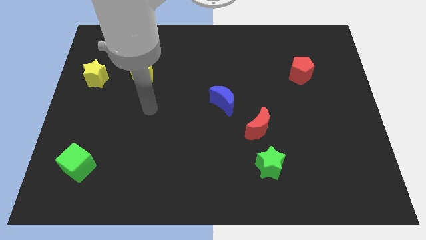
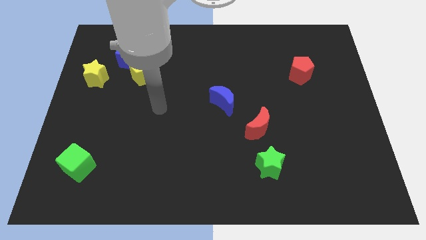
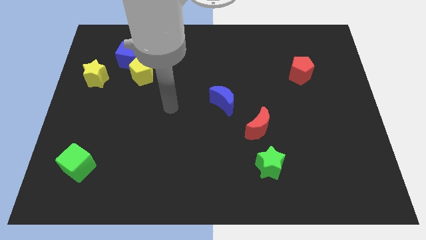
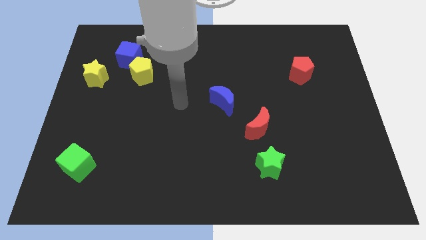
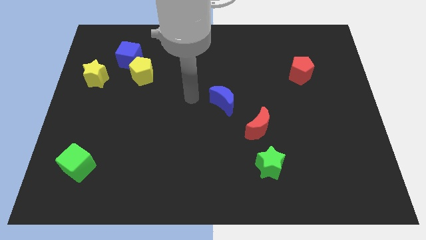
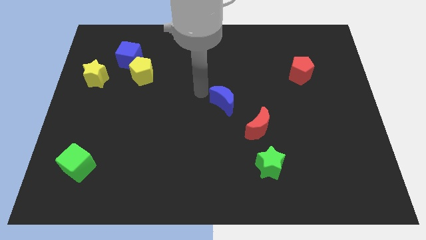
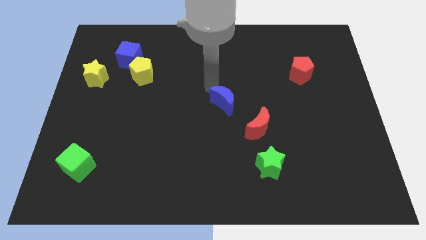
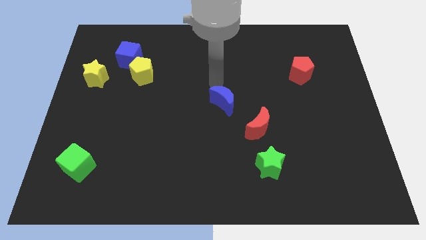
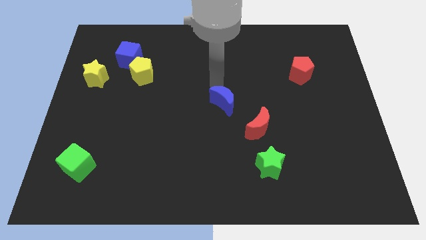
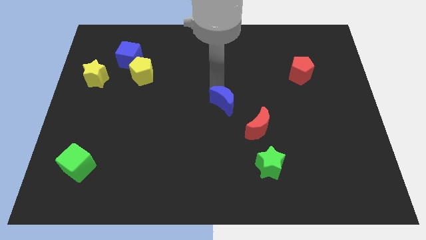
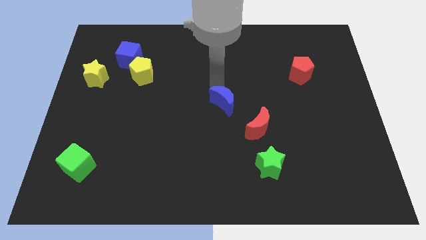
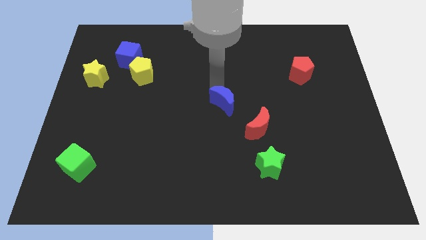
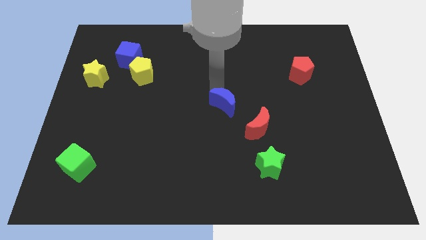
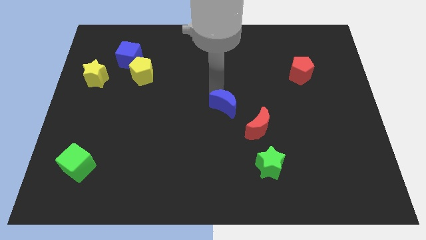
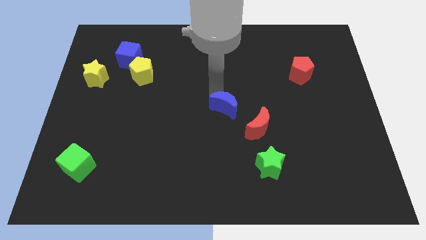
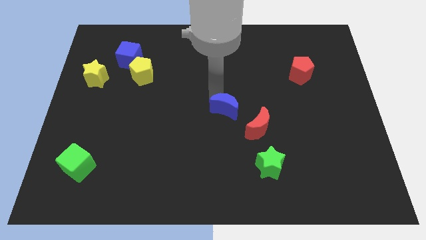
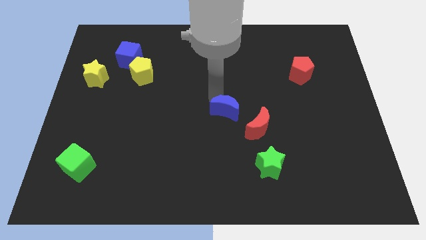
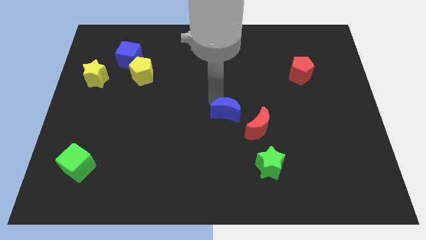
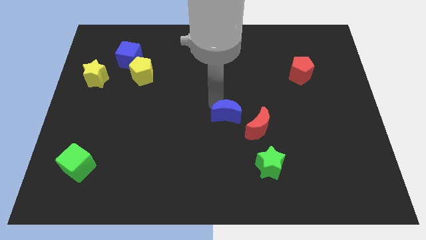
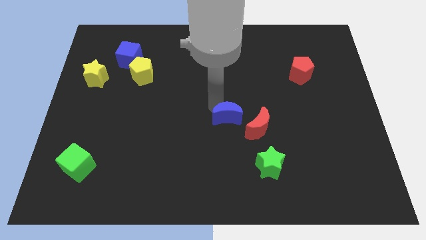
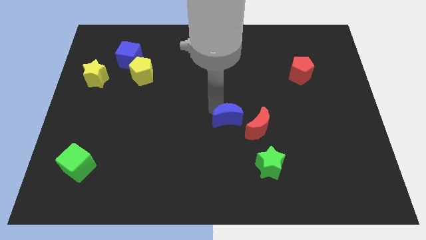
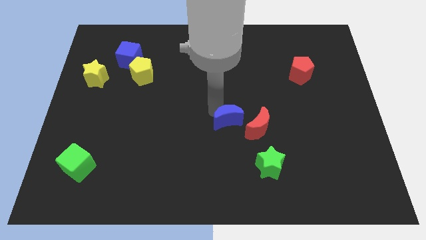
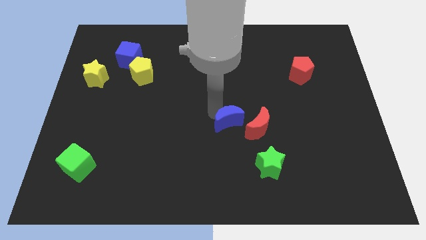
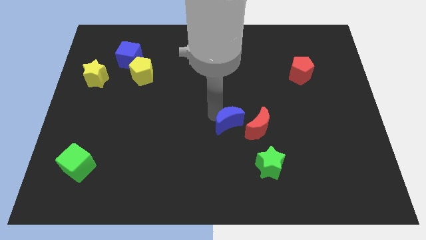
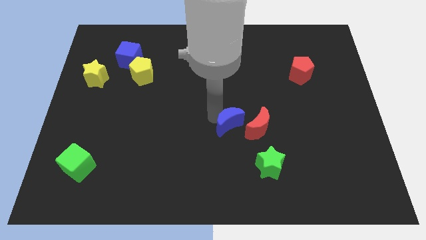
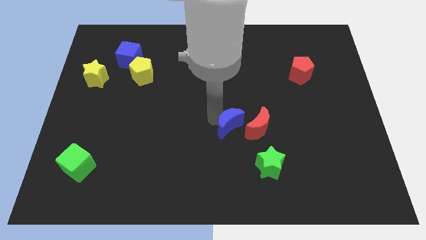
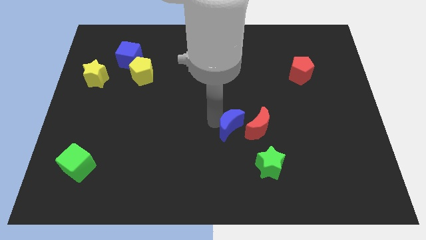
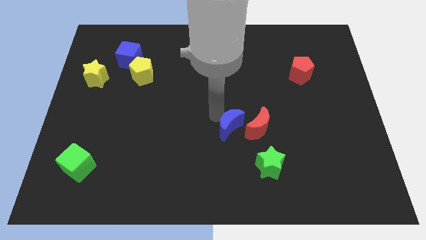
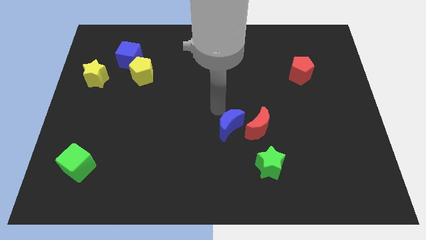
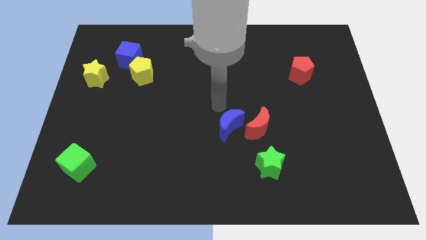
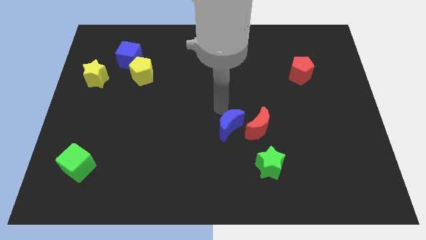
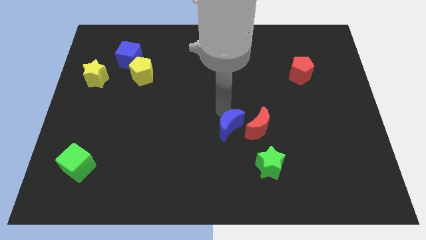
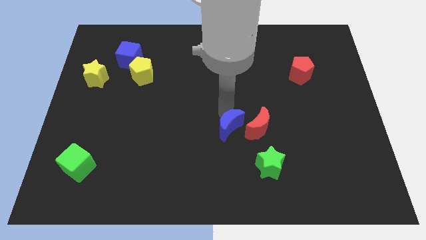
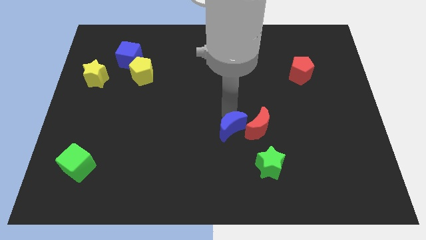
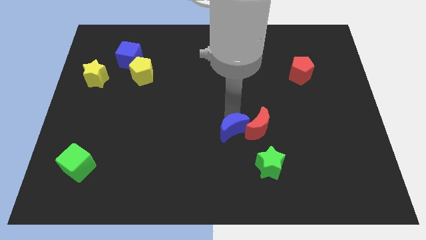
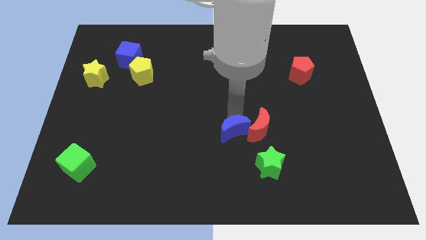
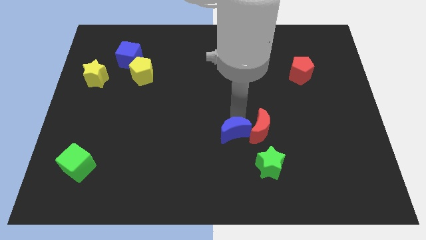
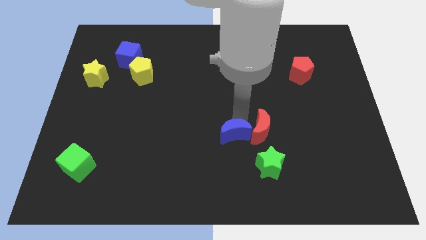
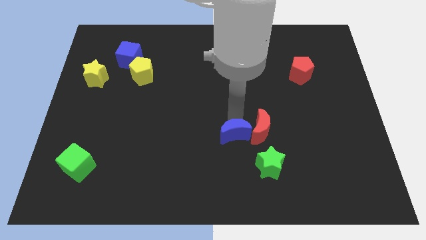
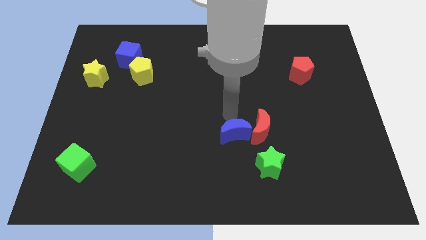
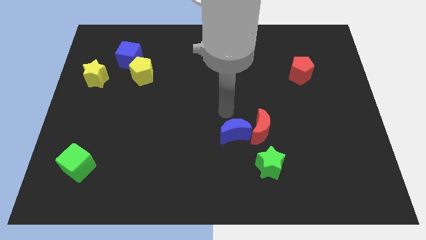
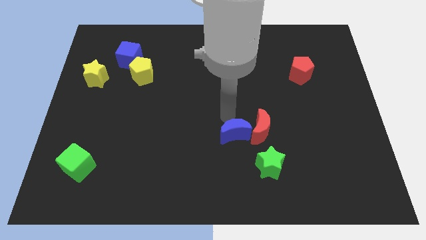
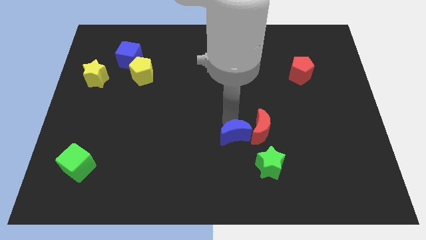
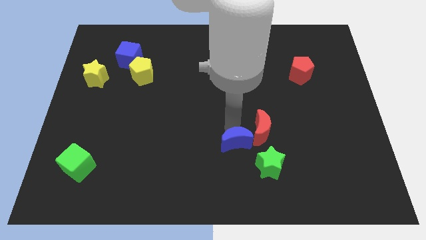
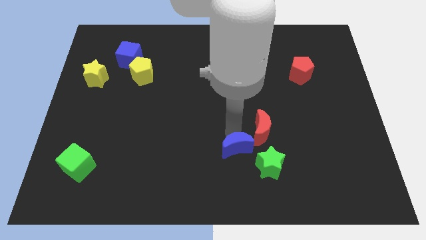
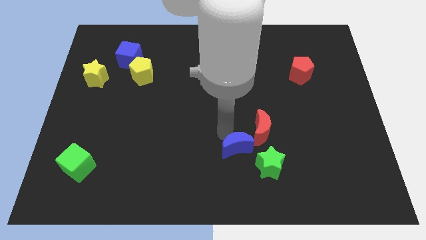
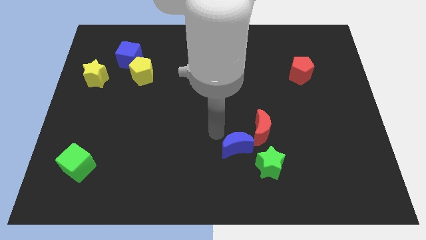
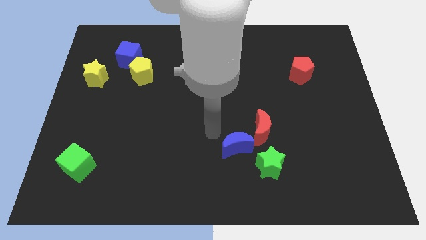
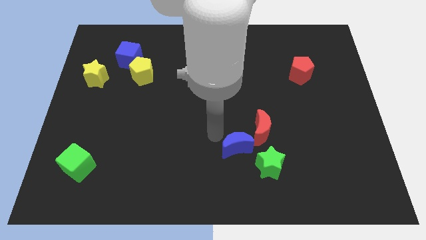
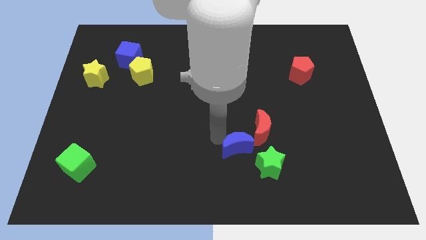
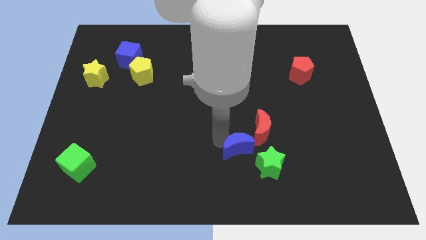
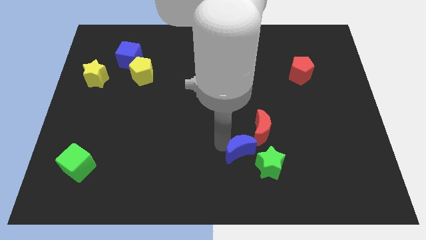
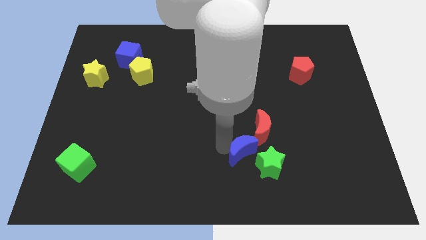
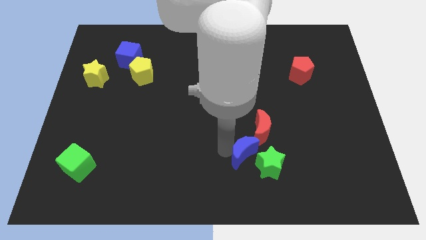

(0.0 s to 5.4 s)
move the blue moon next to the green star

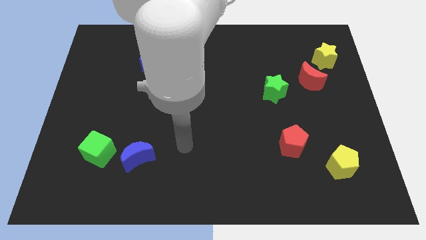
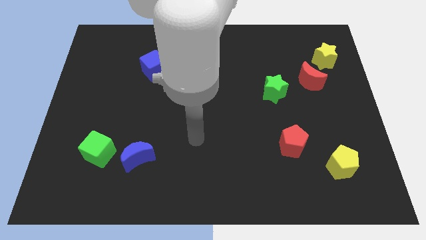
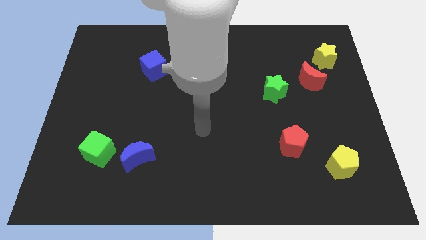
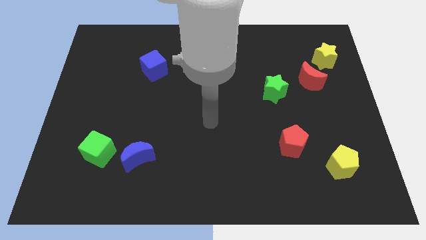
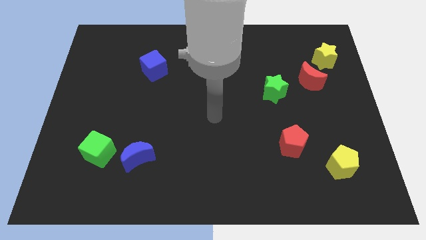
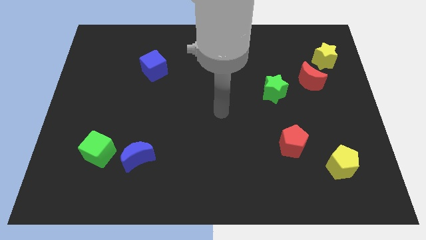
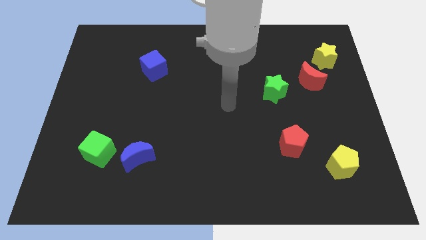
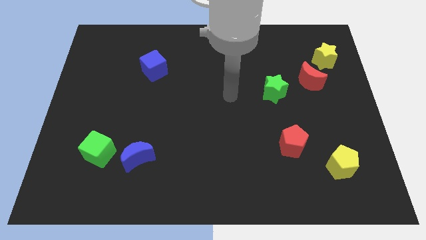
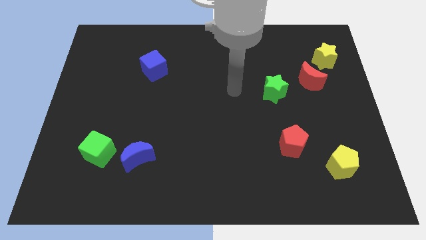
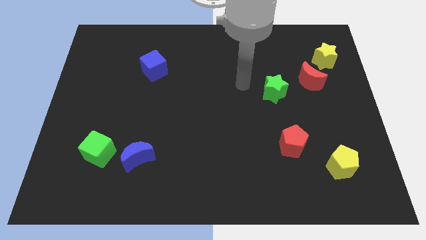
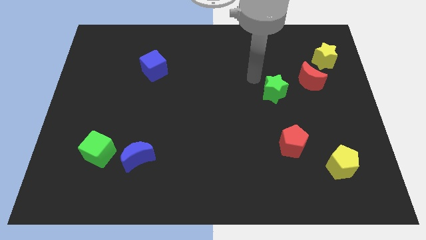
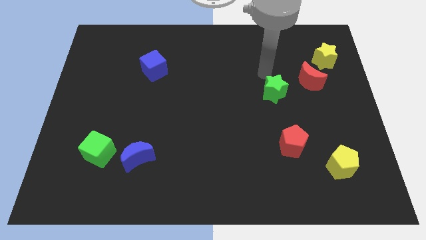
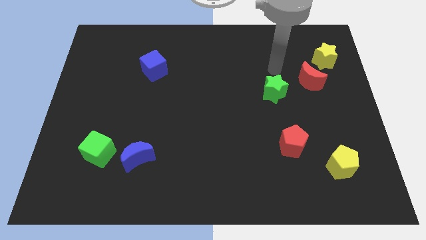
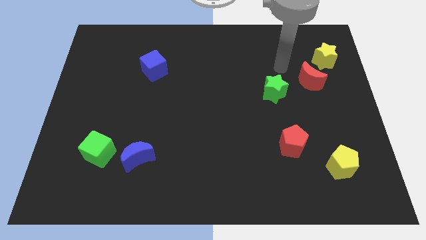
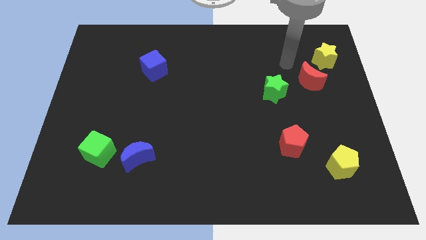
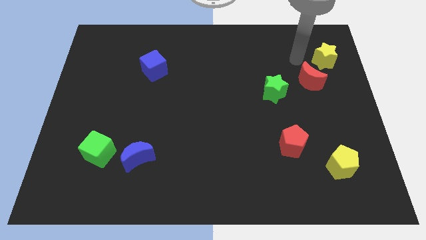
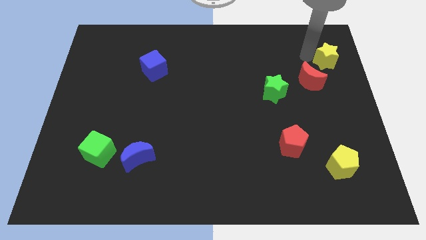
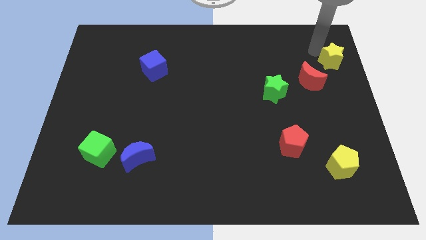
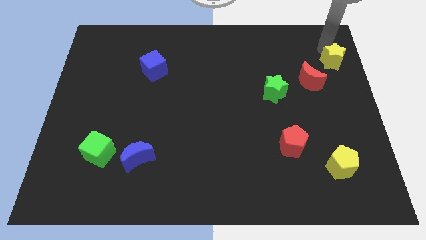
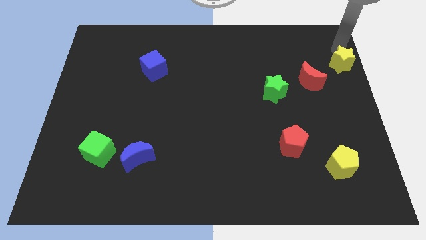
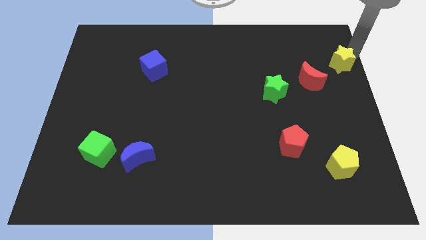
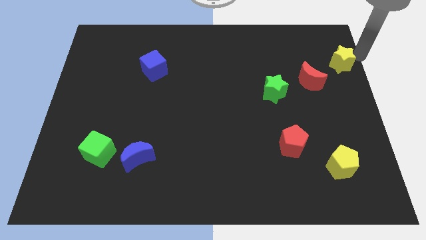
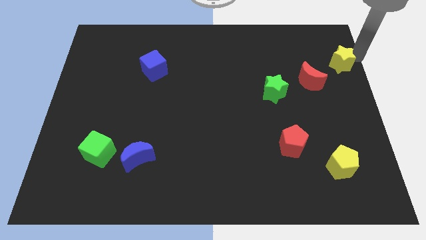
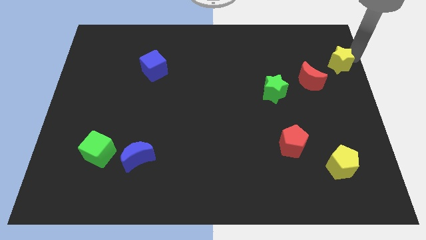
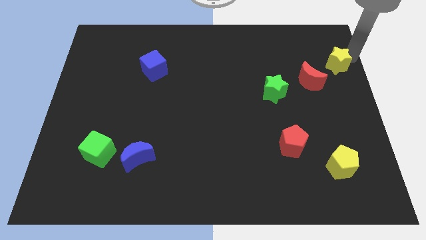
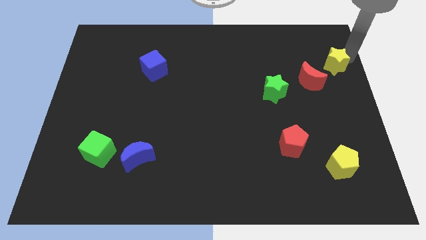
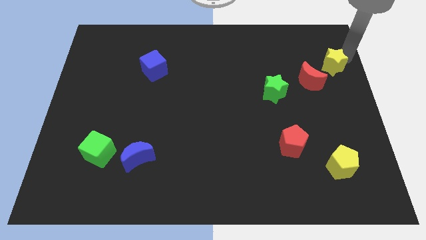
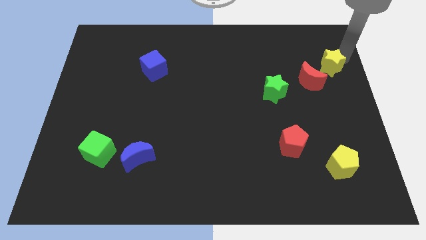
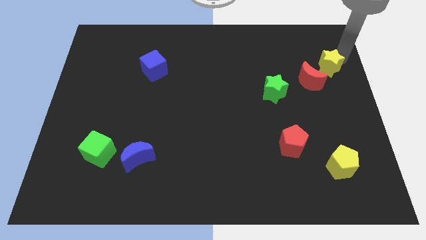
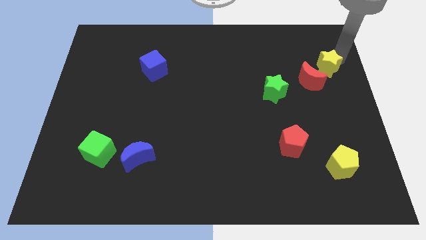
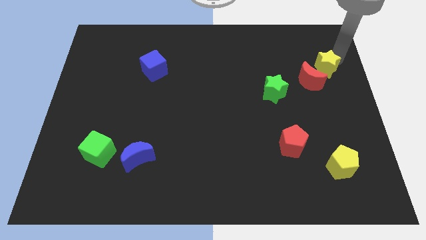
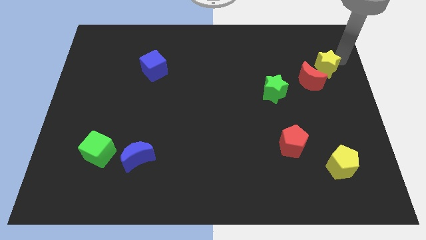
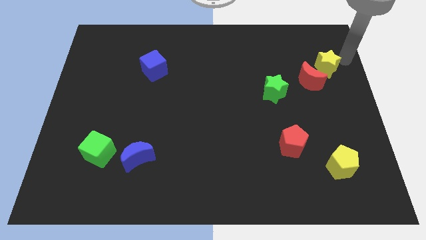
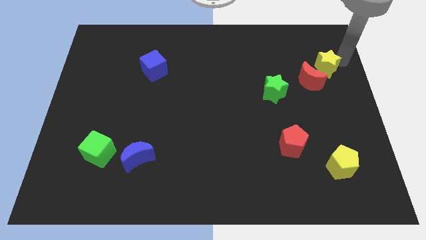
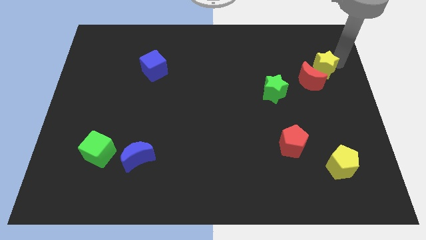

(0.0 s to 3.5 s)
move the yellow star next to the red moon
